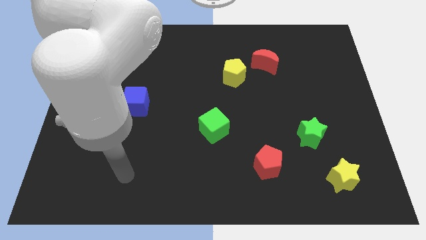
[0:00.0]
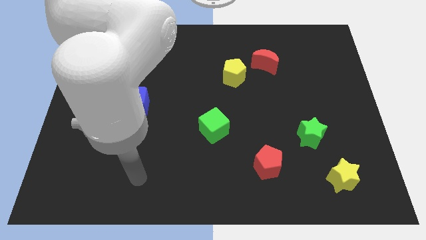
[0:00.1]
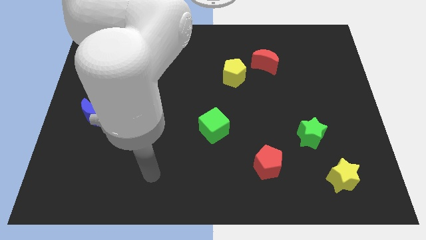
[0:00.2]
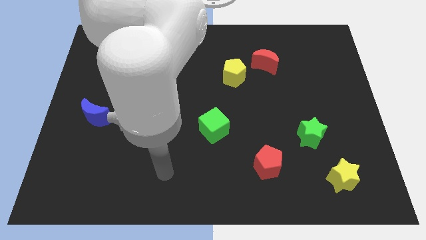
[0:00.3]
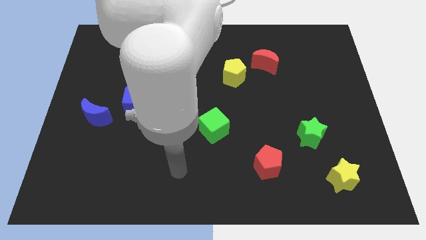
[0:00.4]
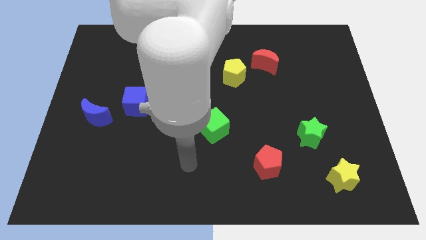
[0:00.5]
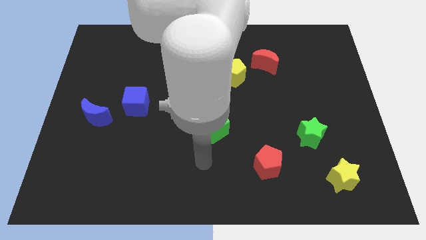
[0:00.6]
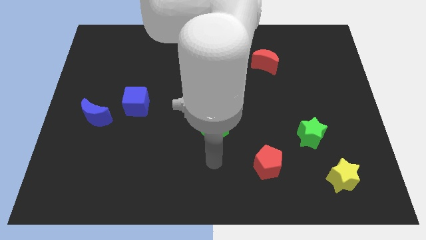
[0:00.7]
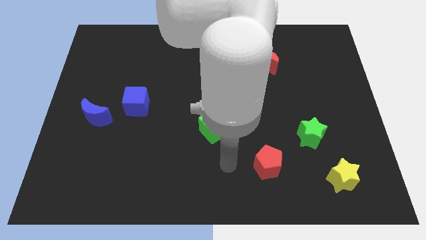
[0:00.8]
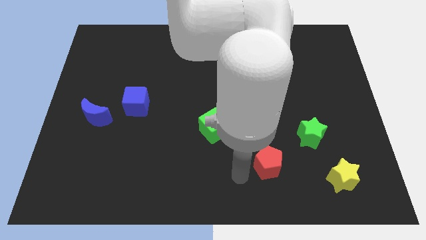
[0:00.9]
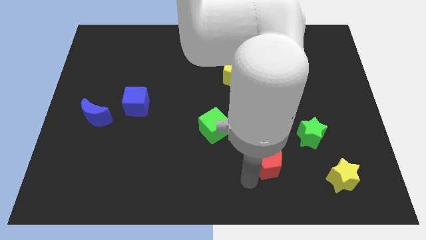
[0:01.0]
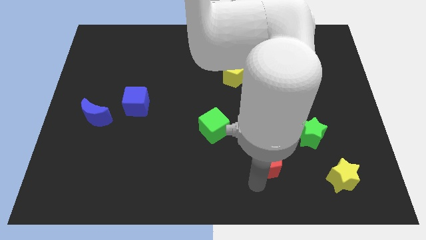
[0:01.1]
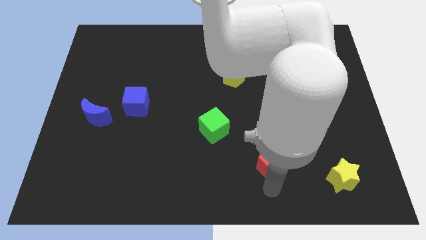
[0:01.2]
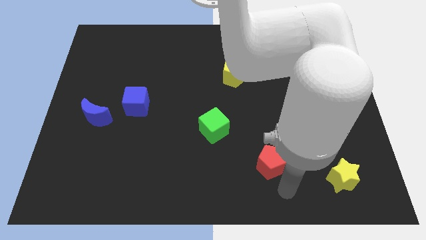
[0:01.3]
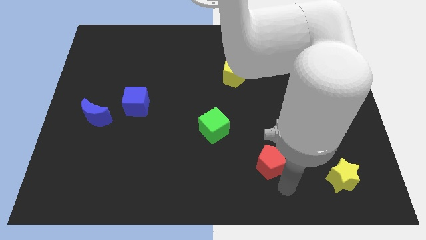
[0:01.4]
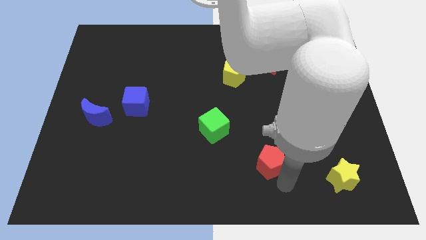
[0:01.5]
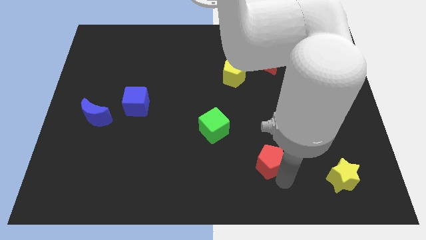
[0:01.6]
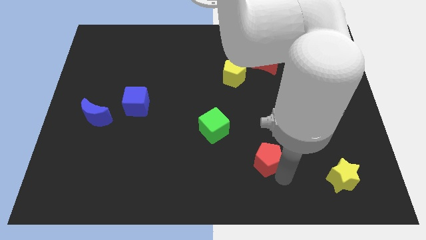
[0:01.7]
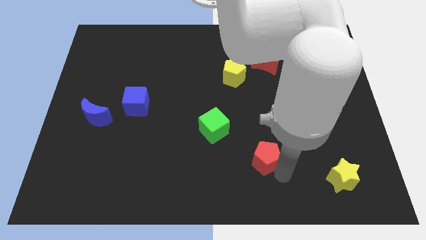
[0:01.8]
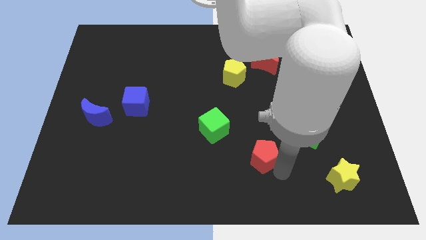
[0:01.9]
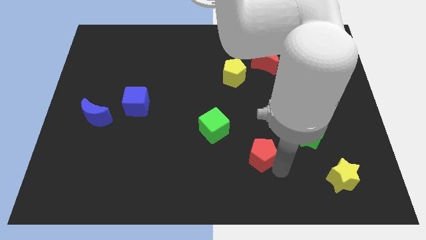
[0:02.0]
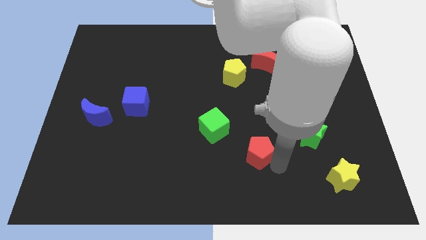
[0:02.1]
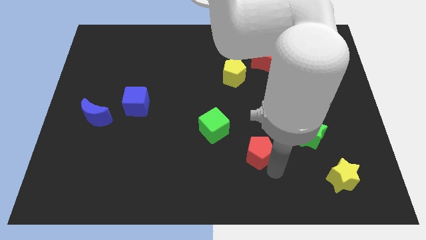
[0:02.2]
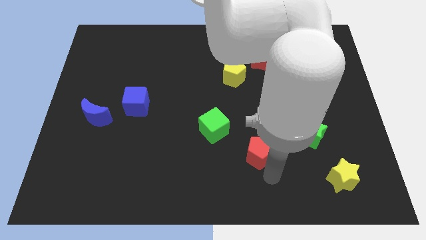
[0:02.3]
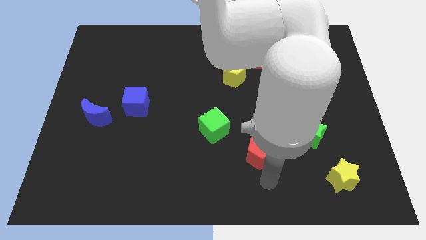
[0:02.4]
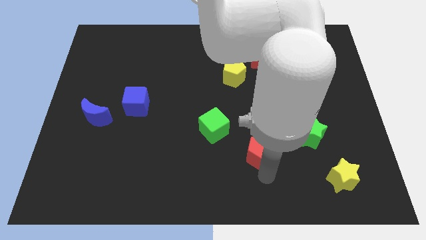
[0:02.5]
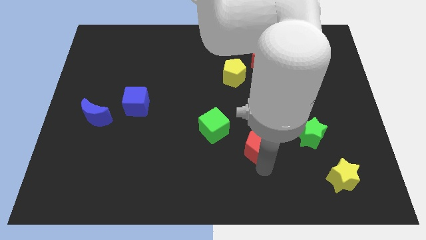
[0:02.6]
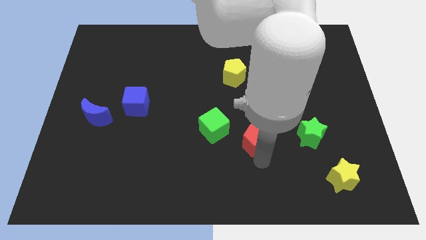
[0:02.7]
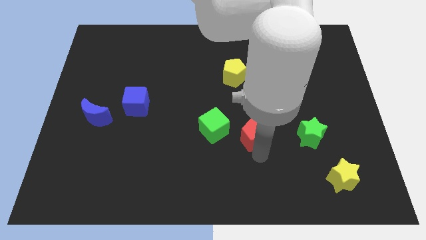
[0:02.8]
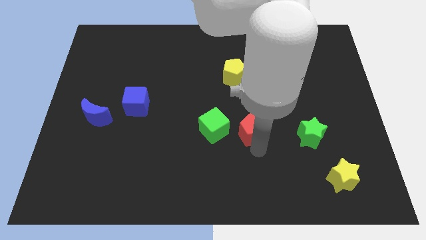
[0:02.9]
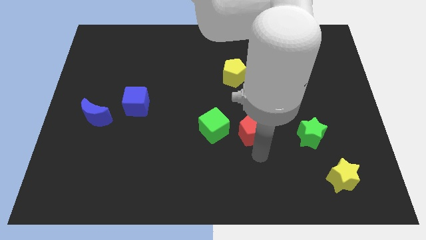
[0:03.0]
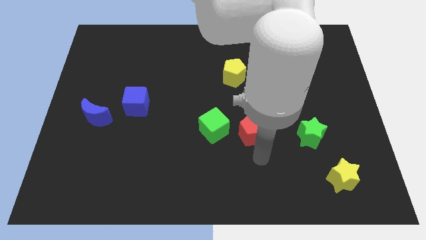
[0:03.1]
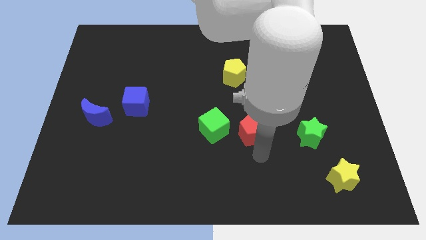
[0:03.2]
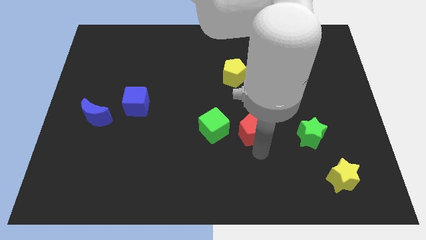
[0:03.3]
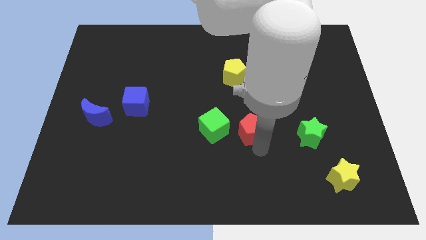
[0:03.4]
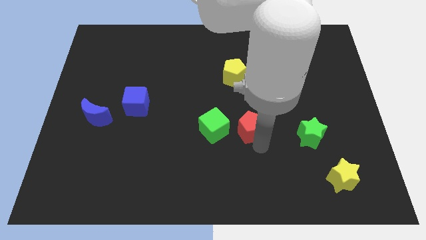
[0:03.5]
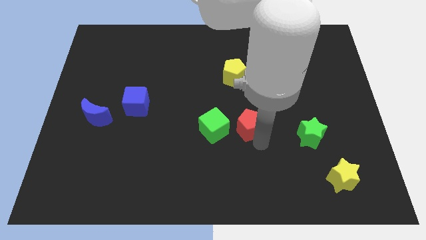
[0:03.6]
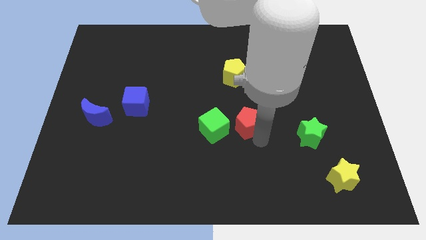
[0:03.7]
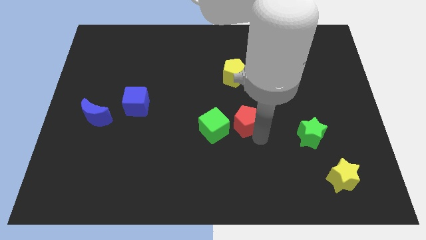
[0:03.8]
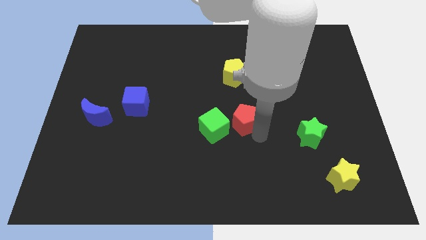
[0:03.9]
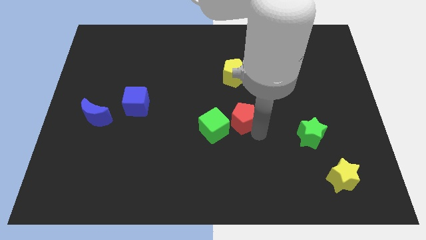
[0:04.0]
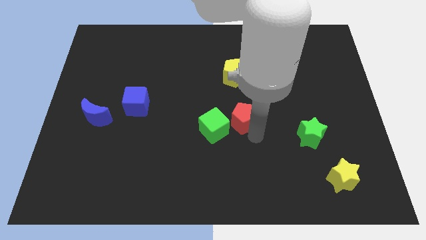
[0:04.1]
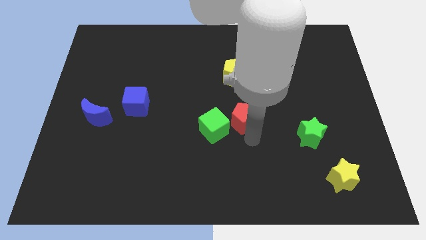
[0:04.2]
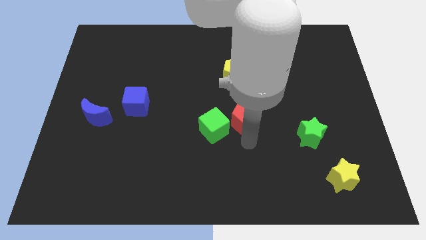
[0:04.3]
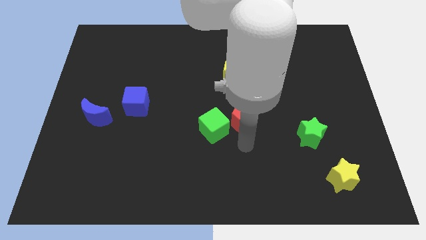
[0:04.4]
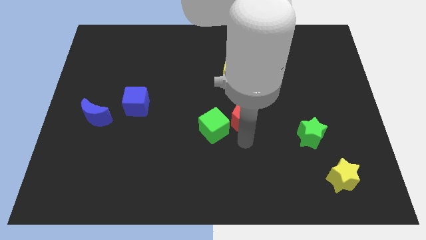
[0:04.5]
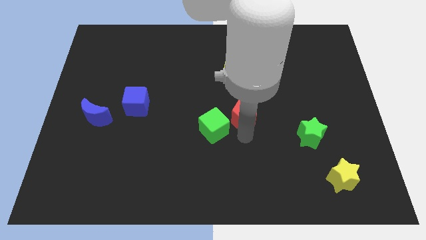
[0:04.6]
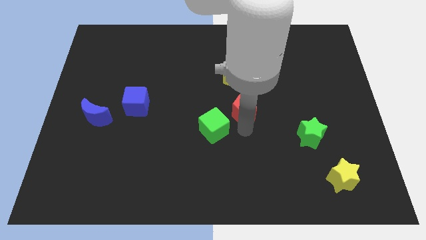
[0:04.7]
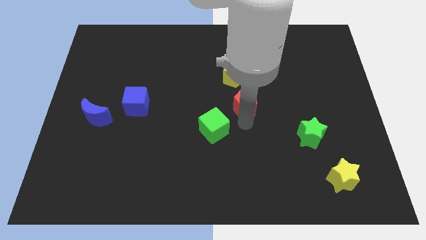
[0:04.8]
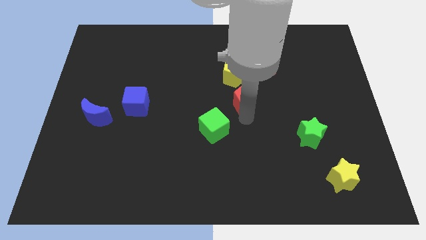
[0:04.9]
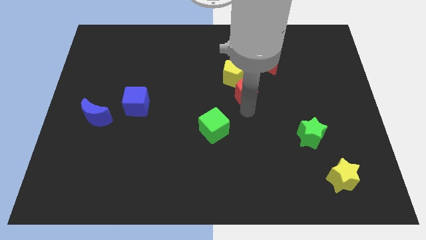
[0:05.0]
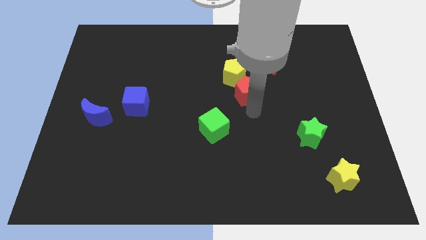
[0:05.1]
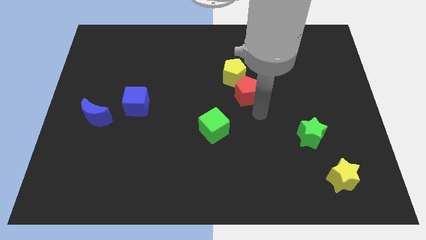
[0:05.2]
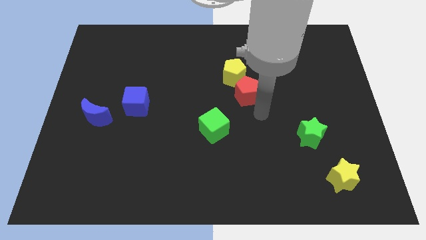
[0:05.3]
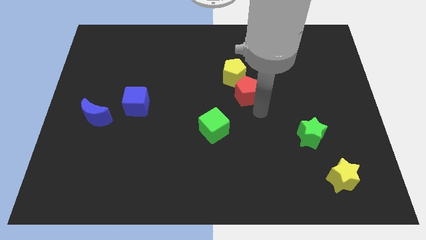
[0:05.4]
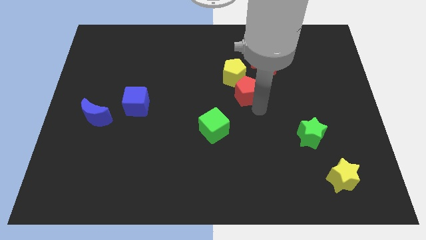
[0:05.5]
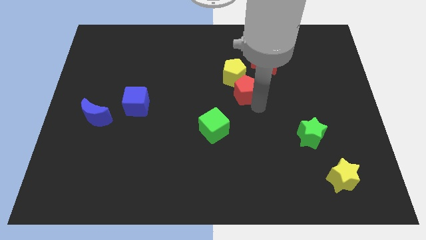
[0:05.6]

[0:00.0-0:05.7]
move the red pentagon next to the yellow pentagon

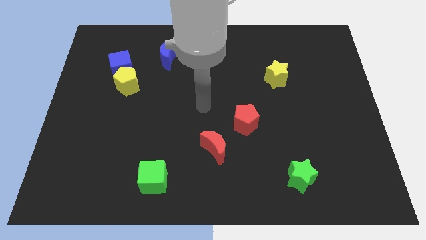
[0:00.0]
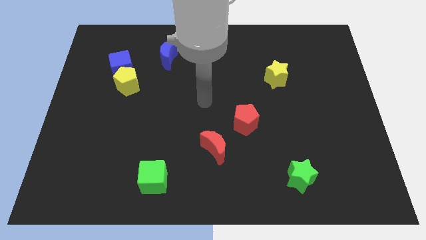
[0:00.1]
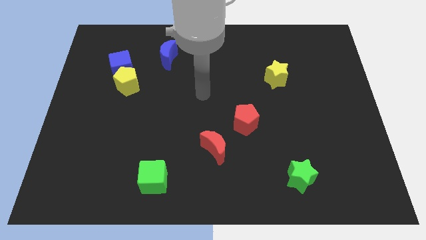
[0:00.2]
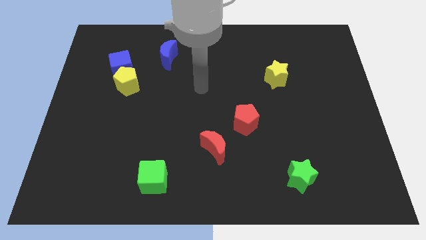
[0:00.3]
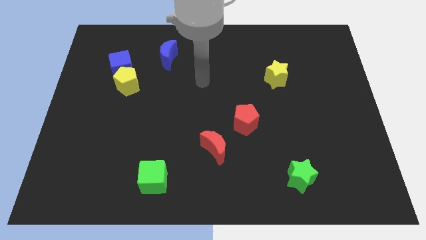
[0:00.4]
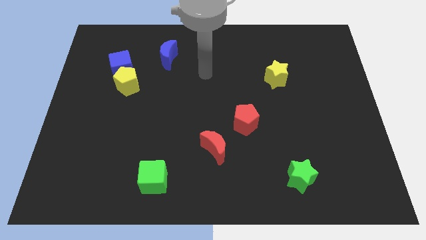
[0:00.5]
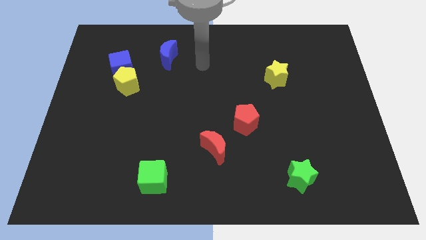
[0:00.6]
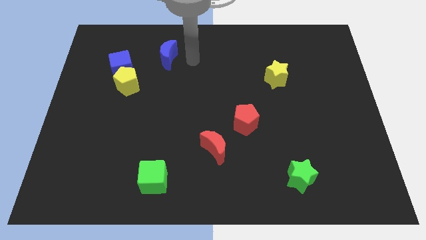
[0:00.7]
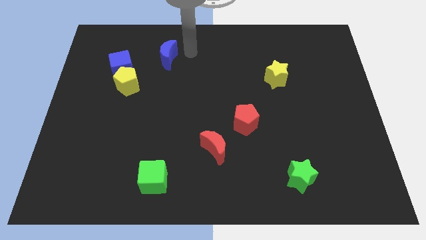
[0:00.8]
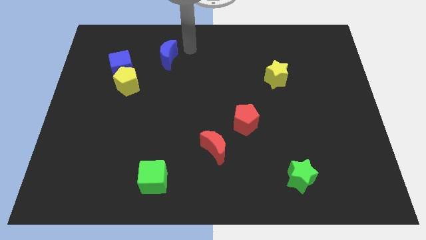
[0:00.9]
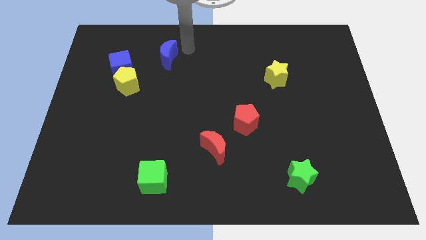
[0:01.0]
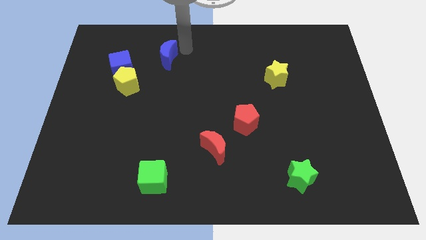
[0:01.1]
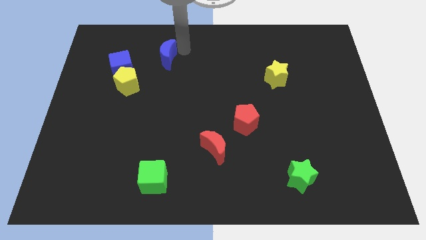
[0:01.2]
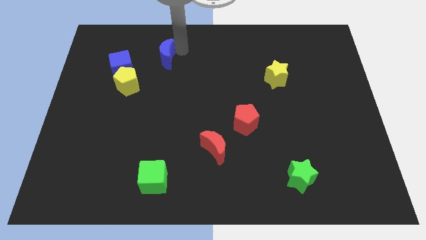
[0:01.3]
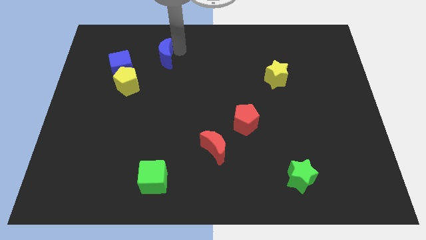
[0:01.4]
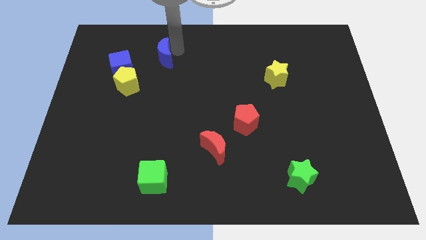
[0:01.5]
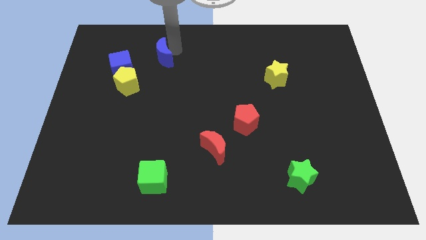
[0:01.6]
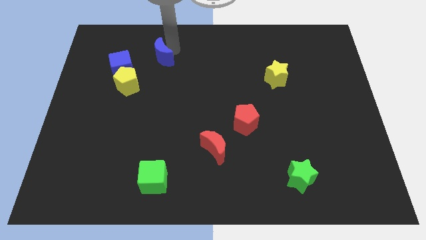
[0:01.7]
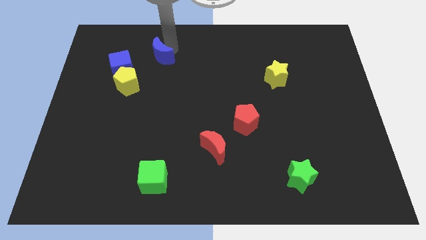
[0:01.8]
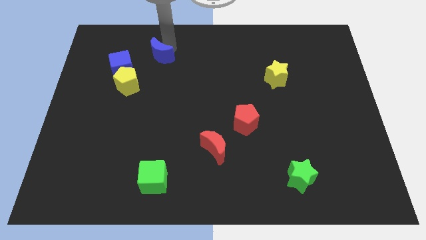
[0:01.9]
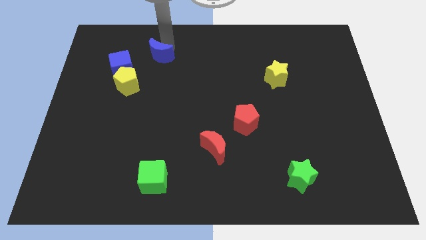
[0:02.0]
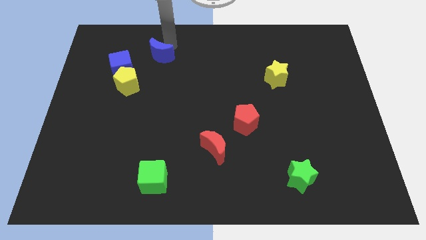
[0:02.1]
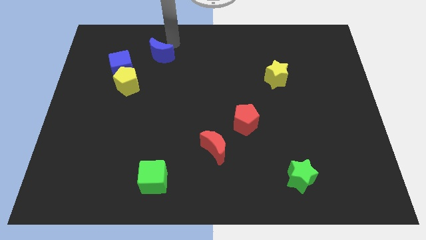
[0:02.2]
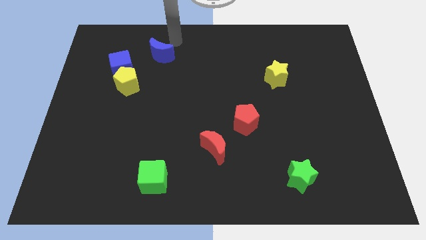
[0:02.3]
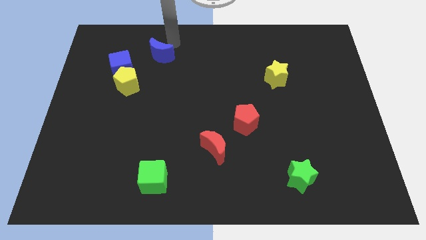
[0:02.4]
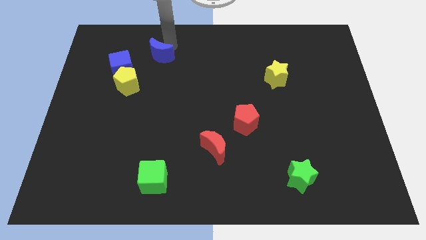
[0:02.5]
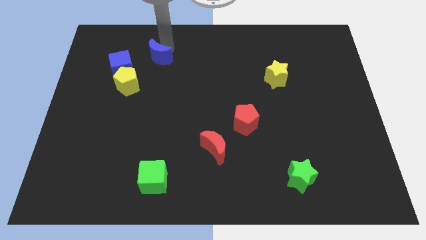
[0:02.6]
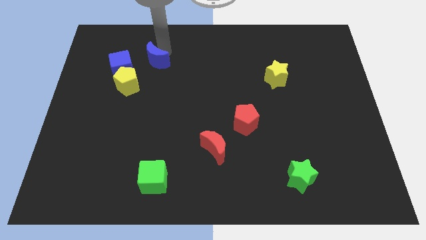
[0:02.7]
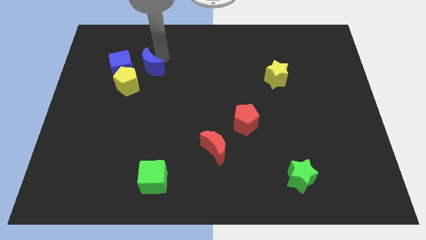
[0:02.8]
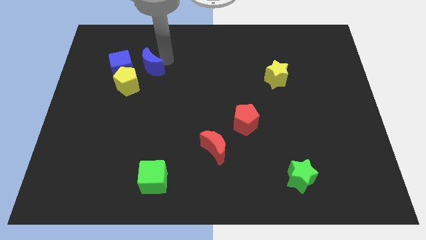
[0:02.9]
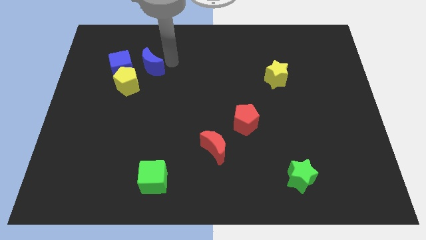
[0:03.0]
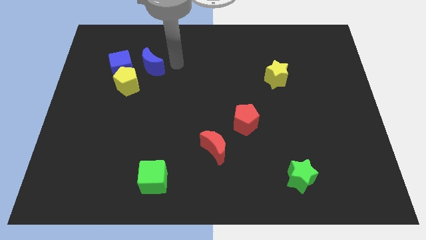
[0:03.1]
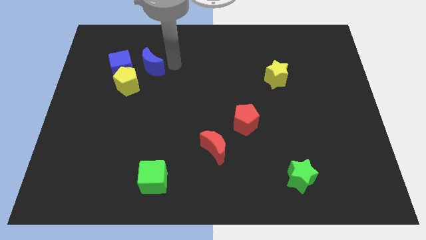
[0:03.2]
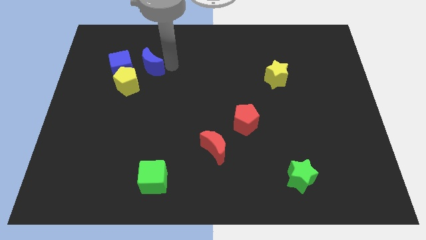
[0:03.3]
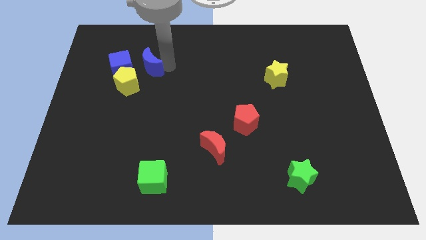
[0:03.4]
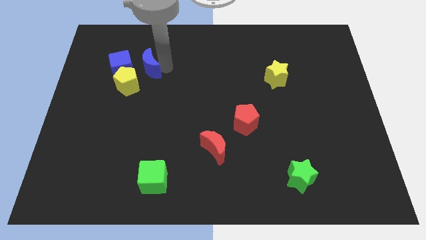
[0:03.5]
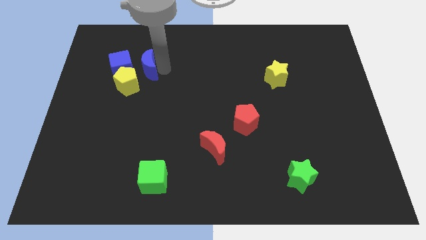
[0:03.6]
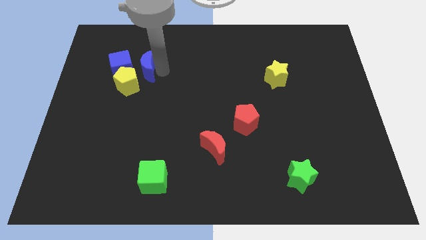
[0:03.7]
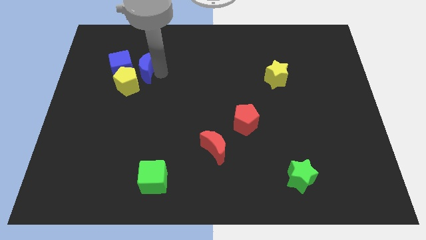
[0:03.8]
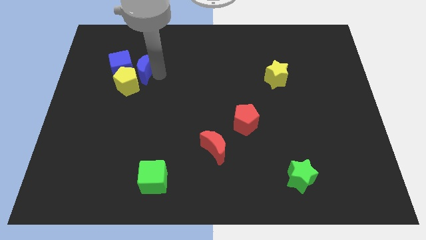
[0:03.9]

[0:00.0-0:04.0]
move the blue moon to the blue cube
